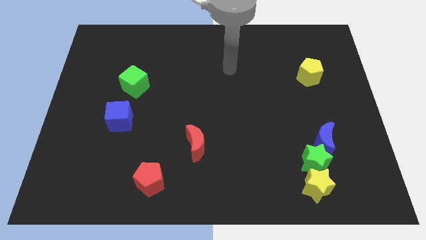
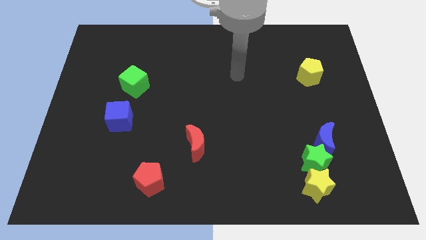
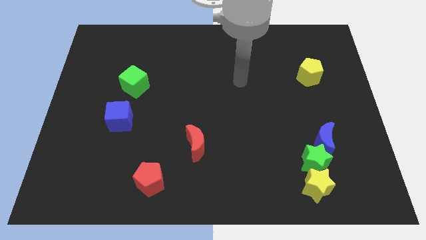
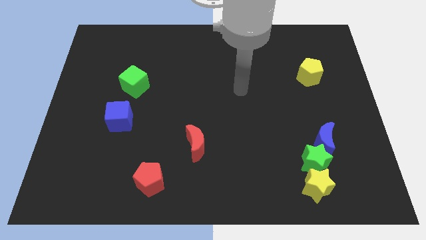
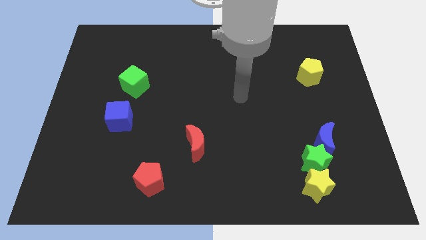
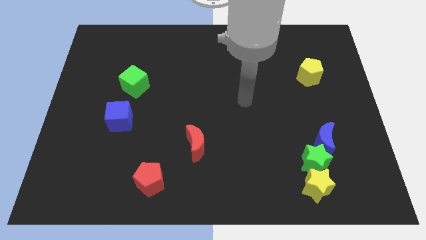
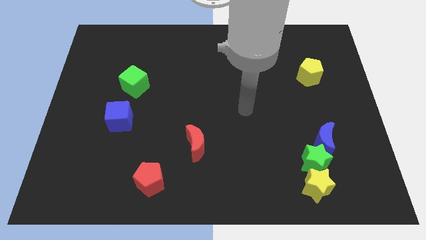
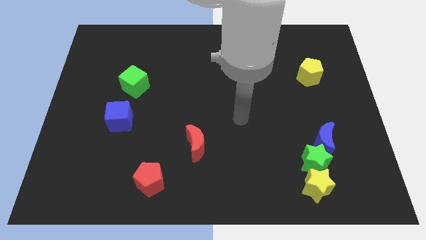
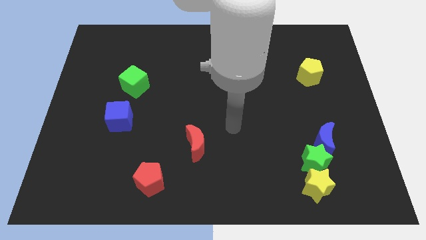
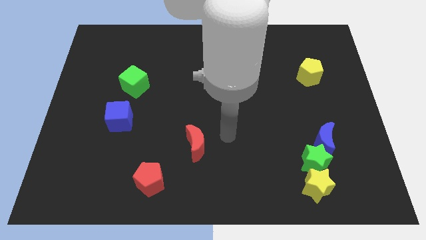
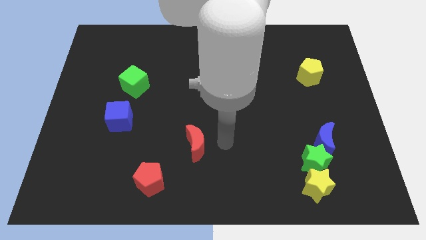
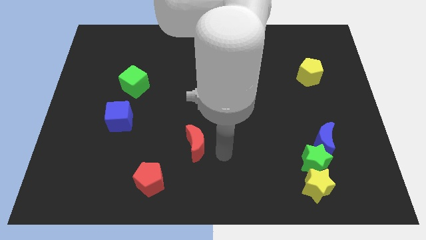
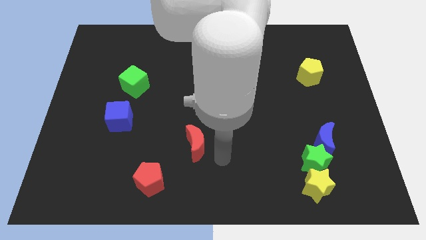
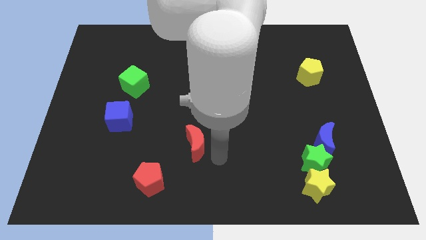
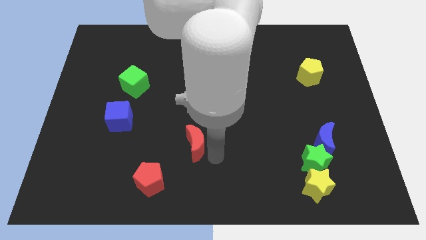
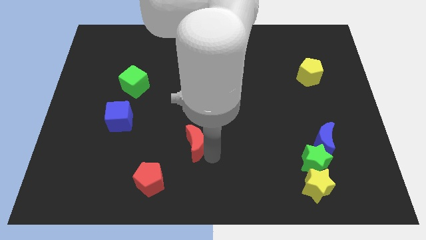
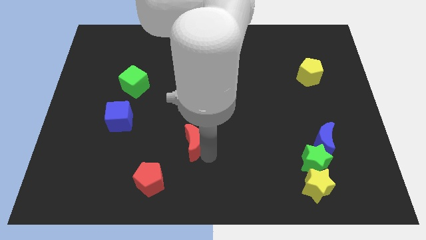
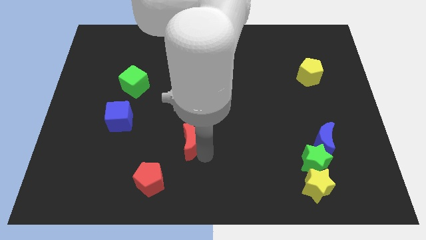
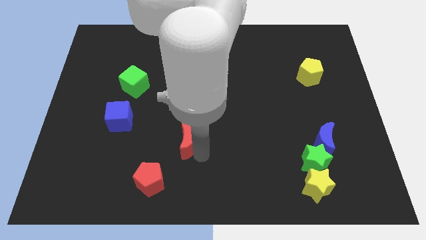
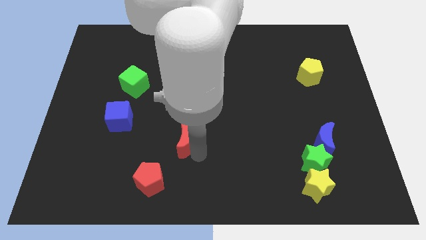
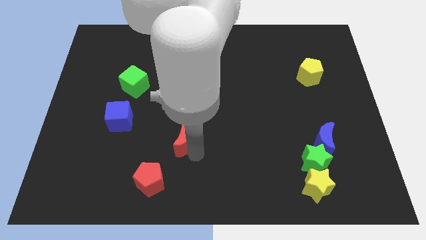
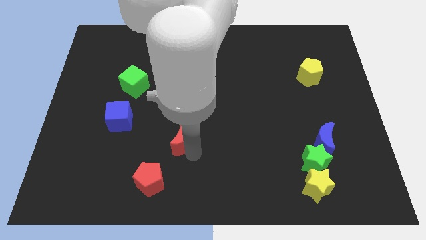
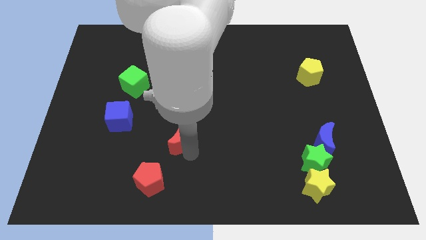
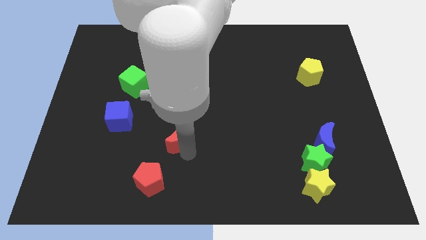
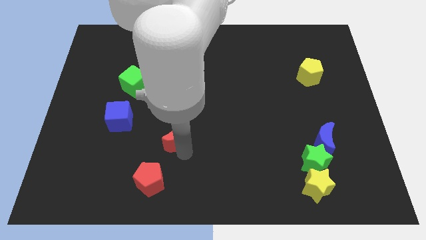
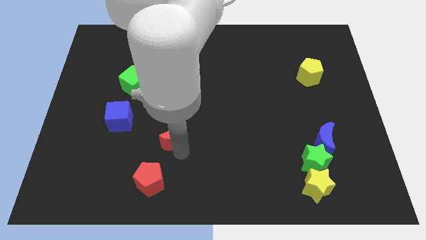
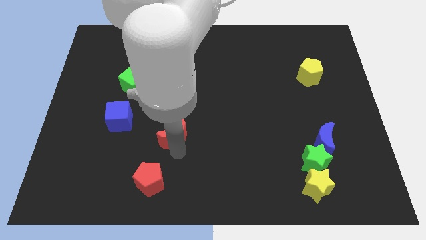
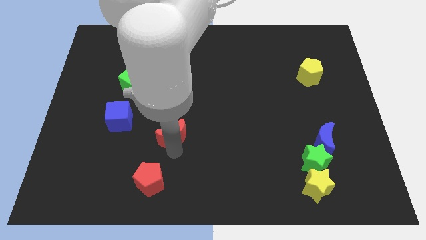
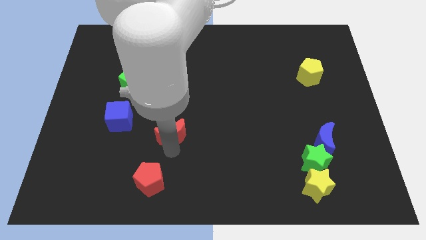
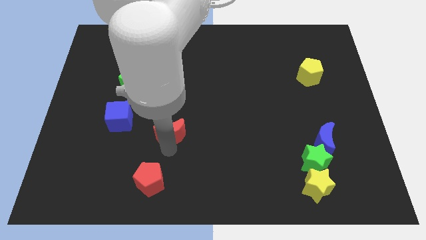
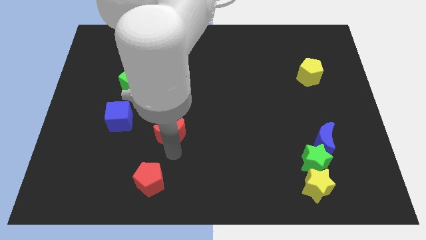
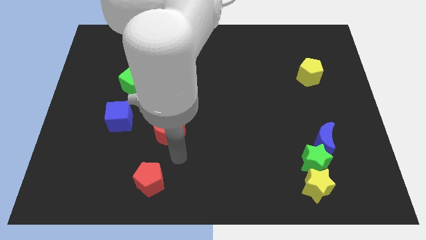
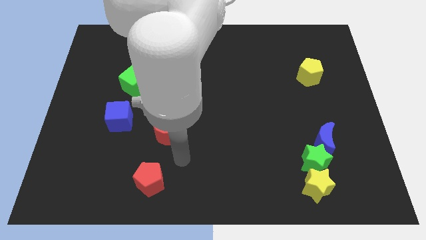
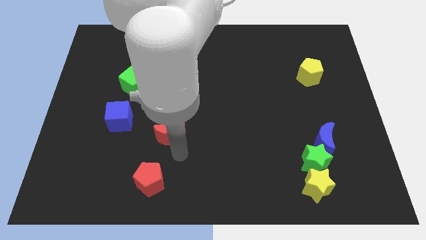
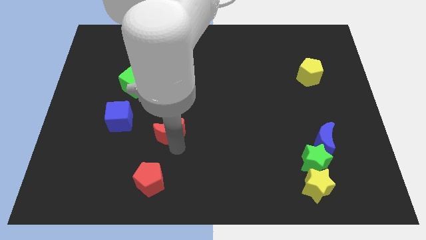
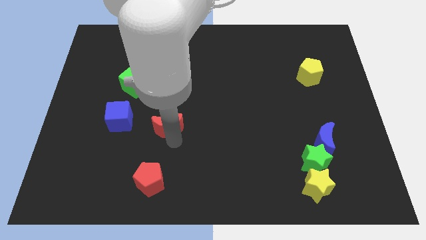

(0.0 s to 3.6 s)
slide the red moon upwards and left diagonally a bit

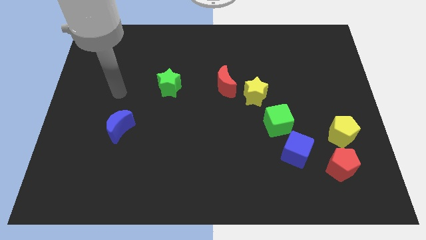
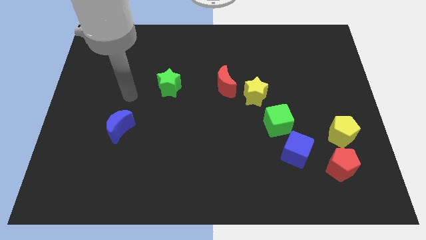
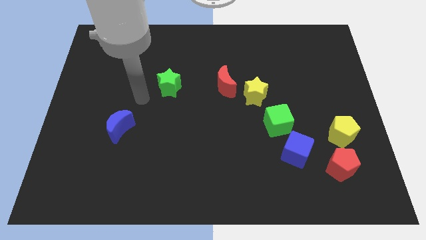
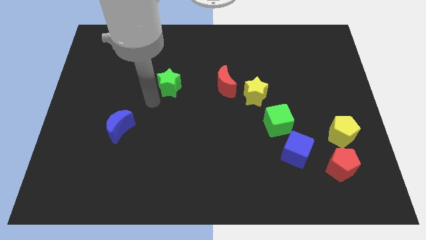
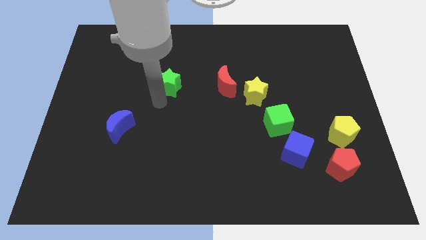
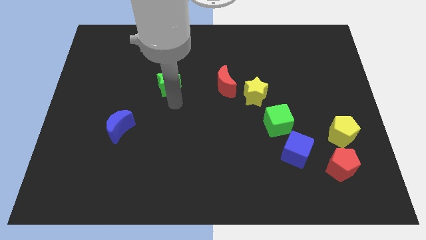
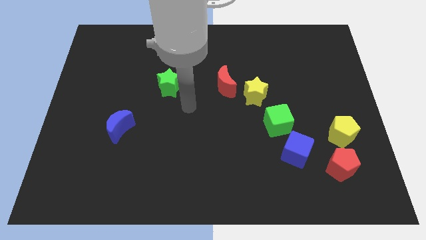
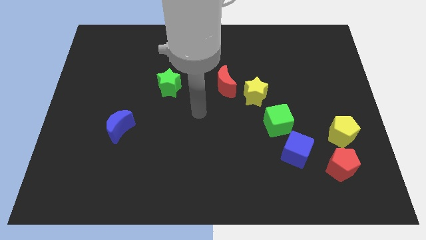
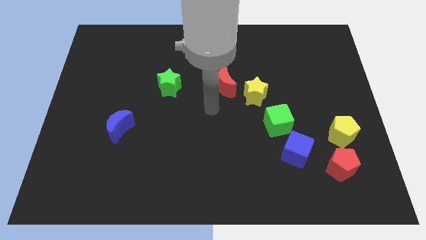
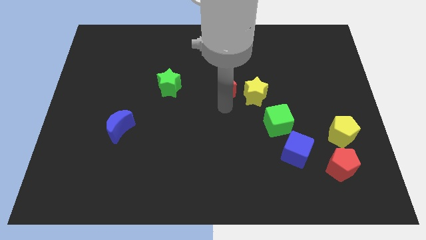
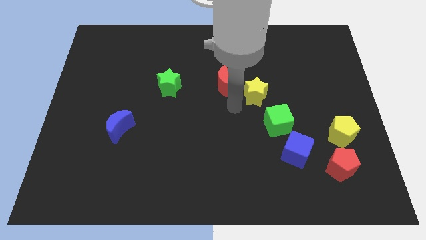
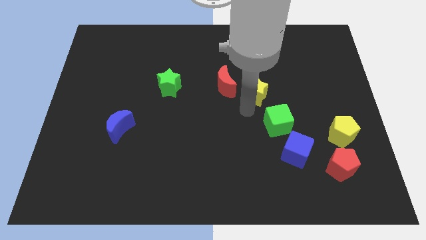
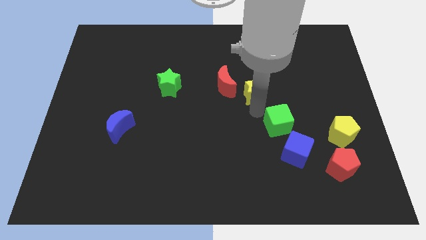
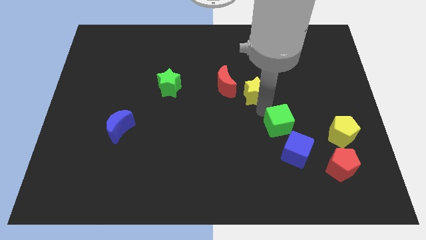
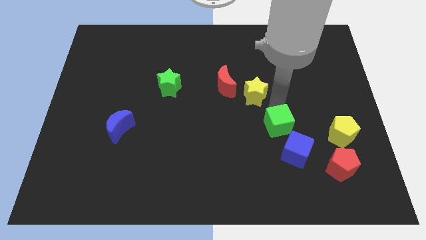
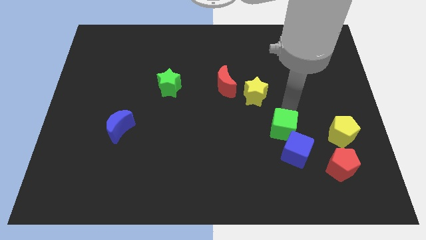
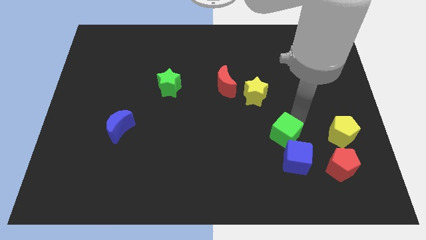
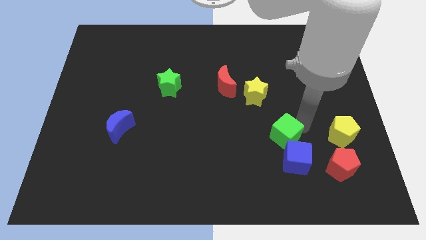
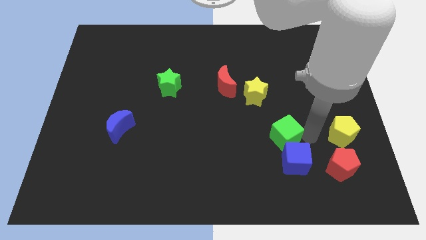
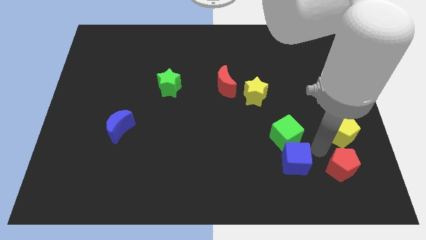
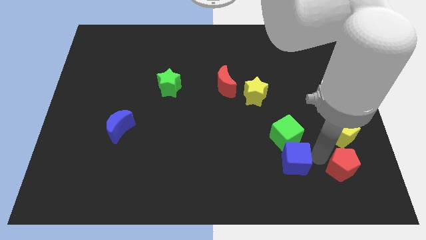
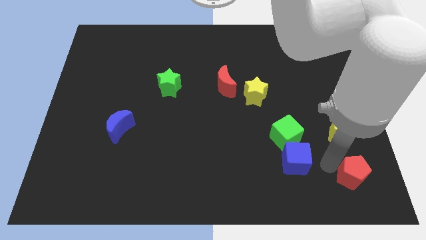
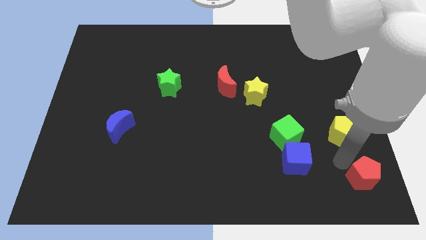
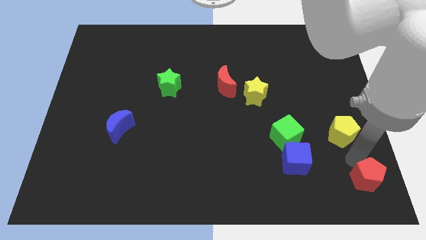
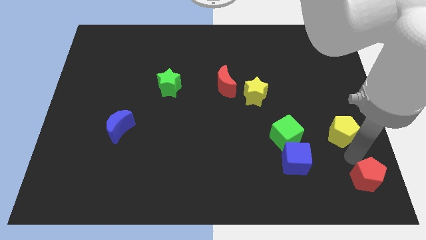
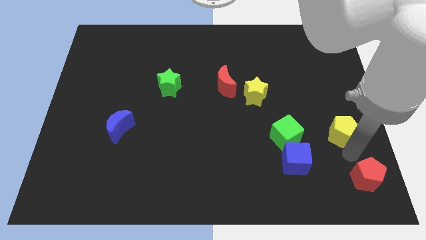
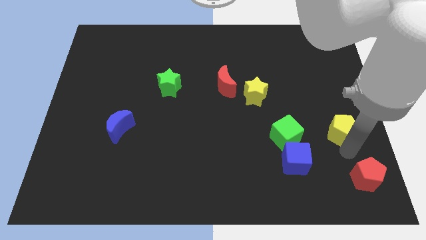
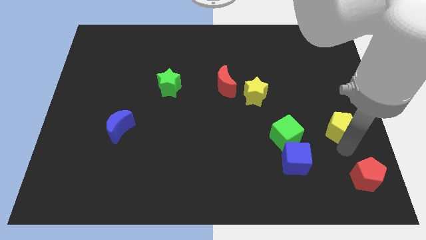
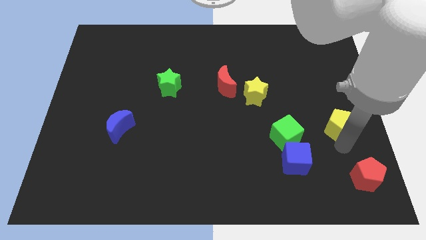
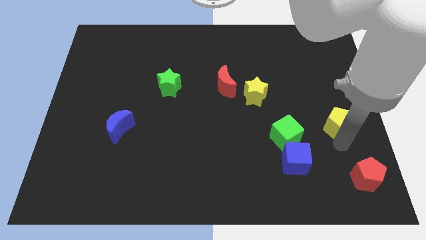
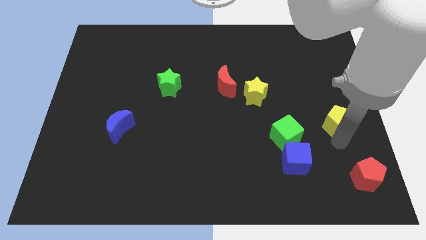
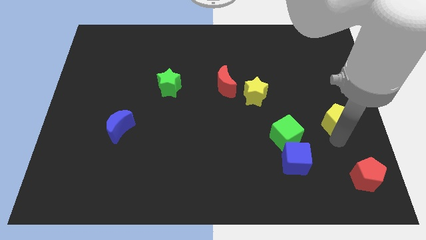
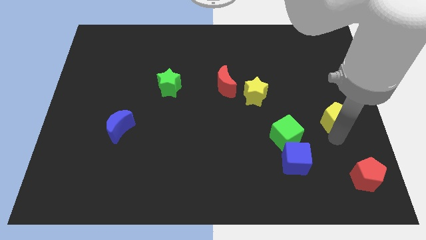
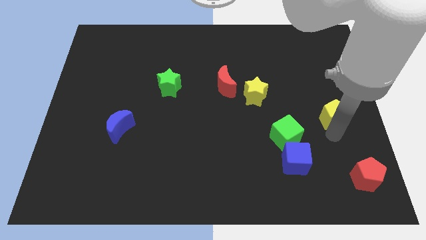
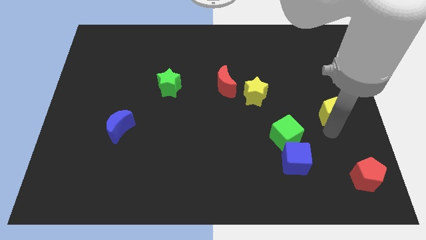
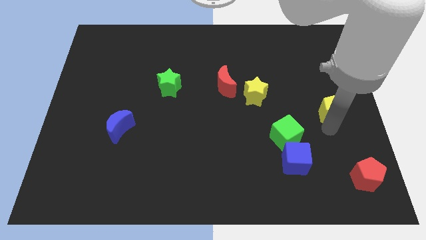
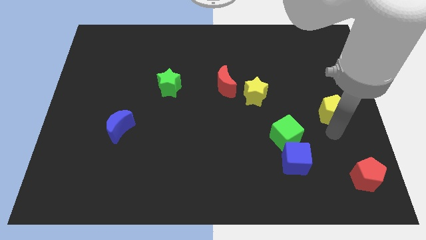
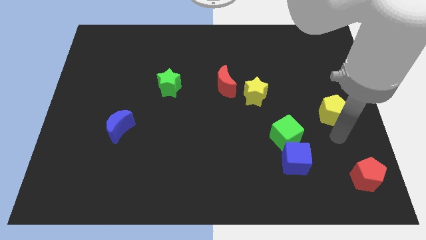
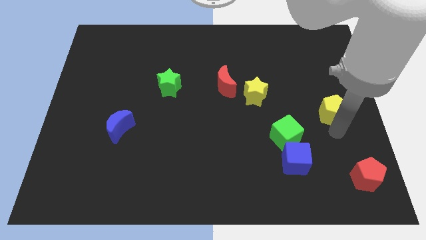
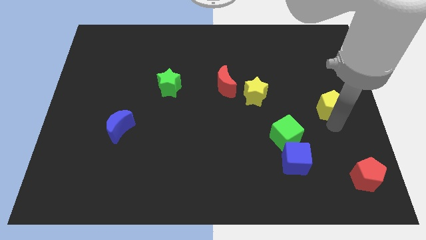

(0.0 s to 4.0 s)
move the yellow pentagon a little upwards

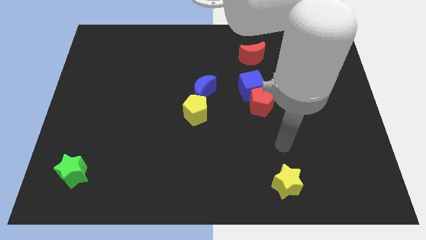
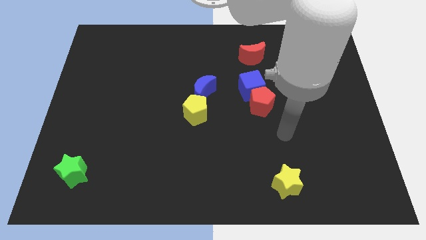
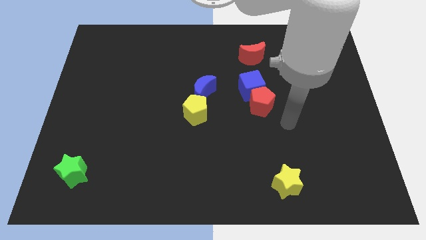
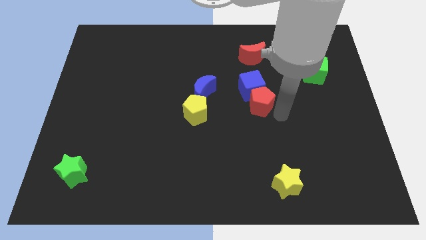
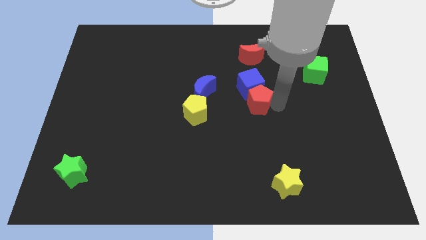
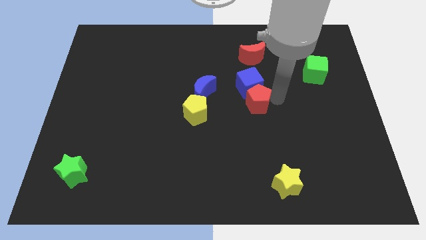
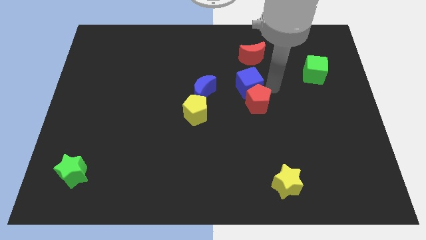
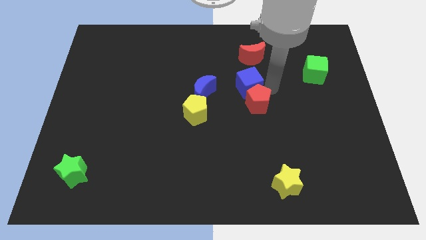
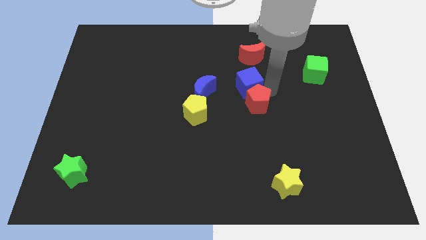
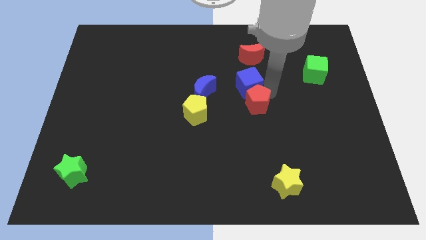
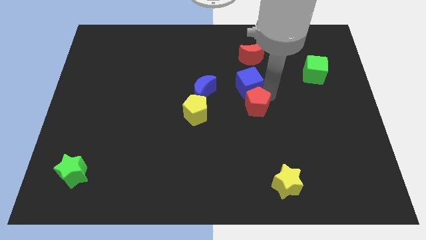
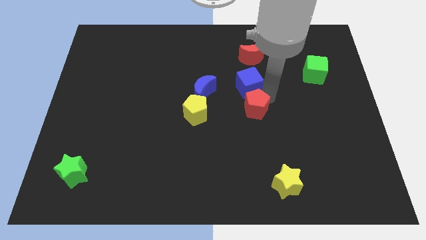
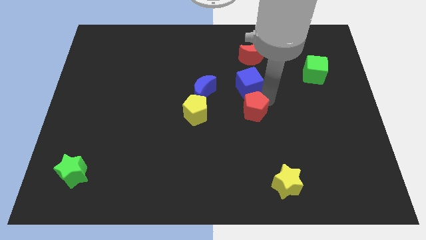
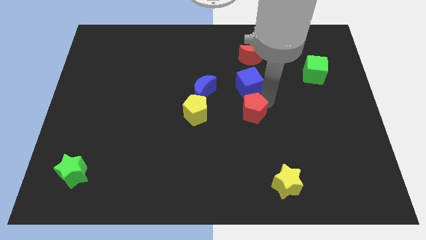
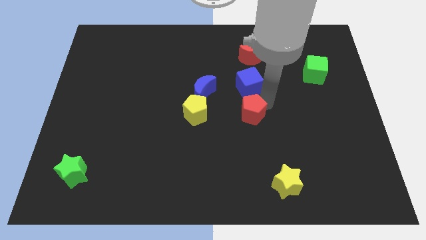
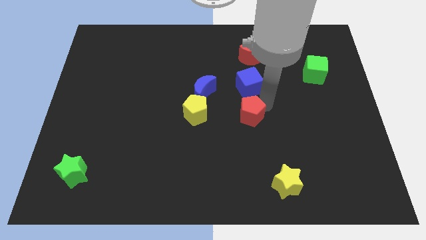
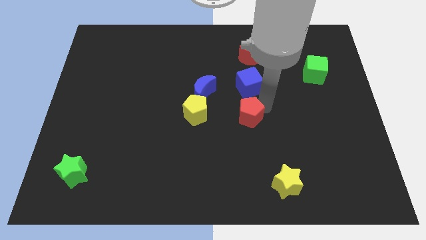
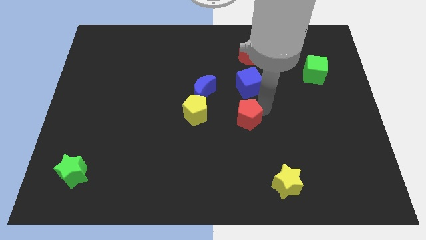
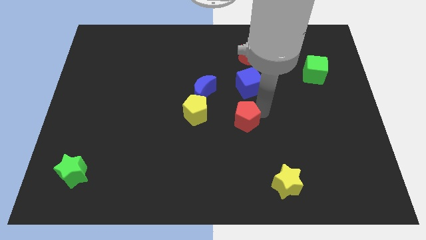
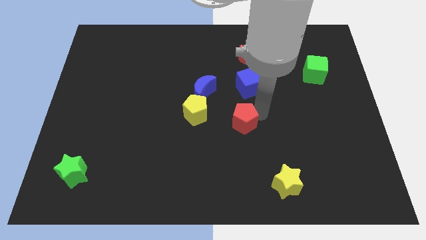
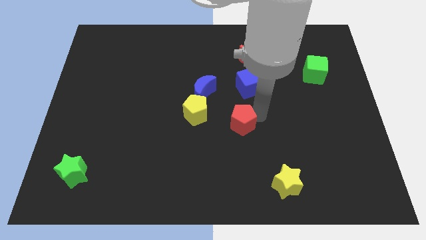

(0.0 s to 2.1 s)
push the red pentagon a bit diagonally downwards and left
